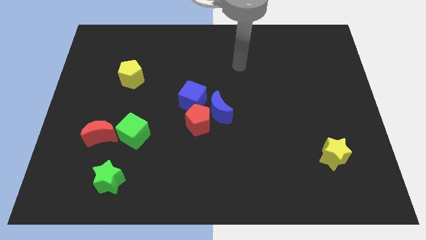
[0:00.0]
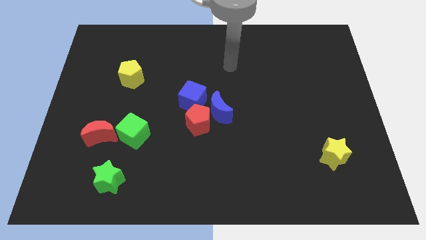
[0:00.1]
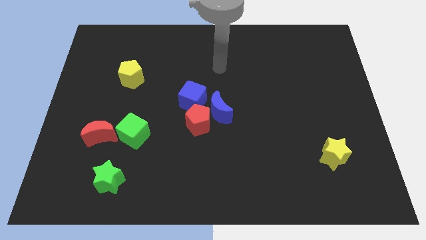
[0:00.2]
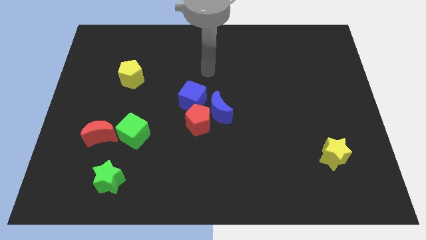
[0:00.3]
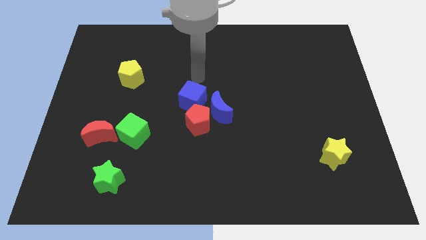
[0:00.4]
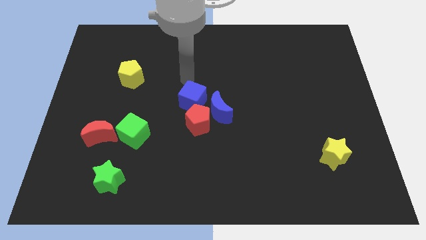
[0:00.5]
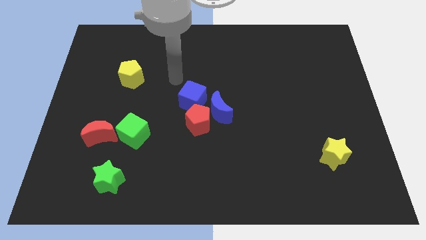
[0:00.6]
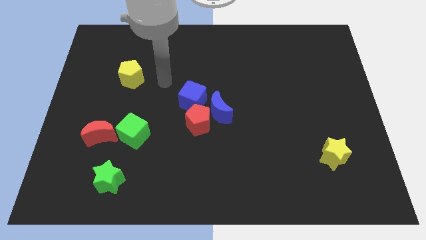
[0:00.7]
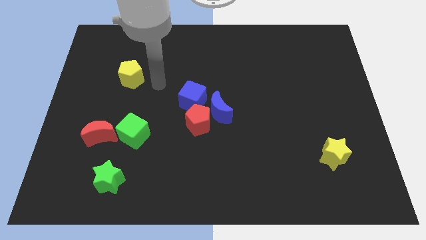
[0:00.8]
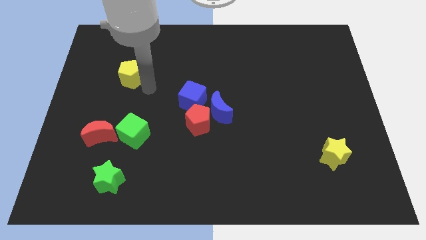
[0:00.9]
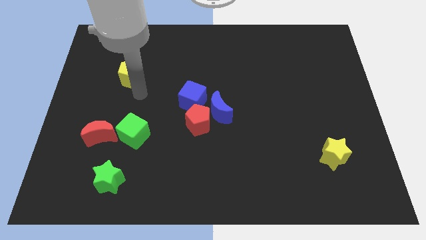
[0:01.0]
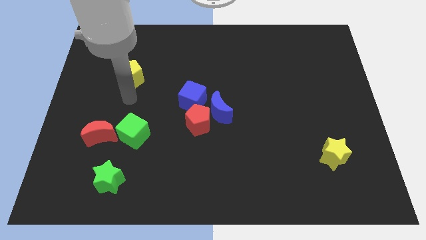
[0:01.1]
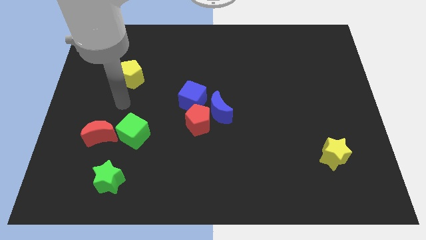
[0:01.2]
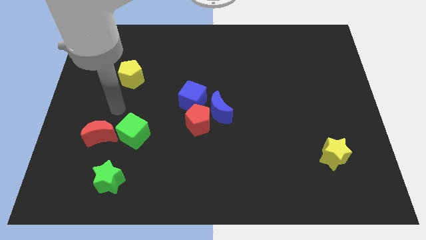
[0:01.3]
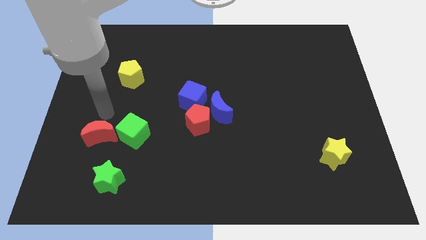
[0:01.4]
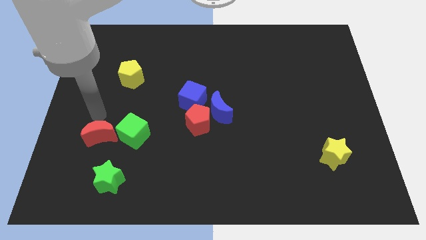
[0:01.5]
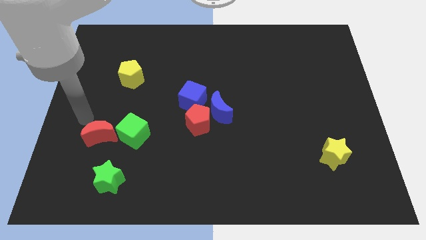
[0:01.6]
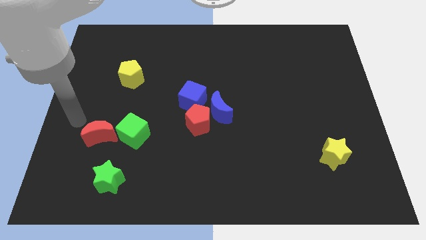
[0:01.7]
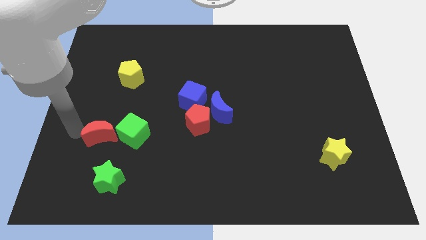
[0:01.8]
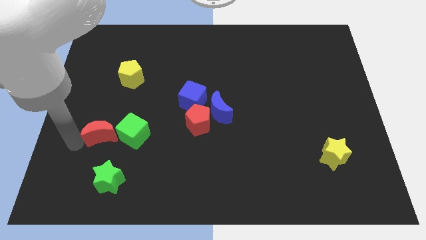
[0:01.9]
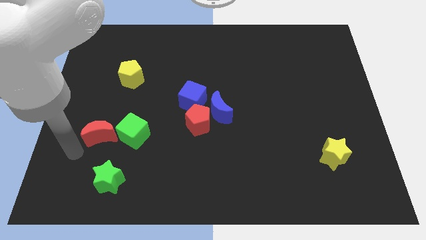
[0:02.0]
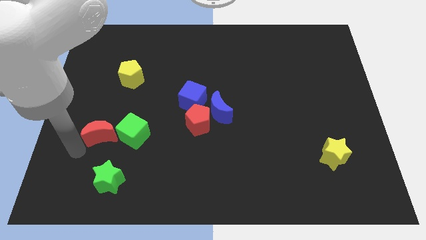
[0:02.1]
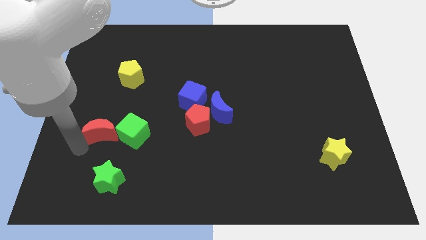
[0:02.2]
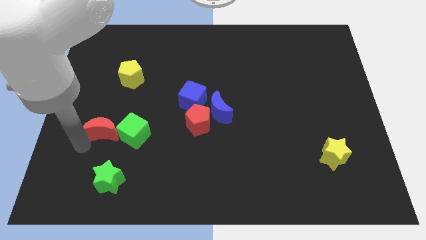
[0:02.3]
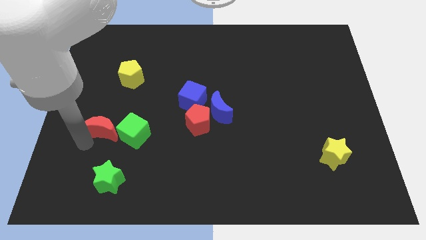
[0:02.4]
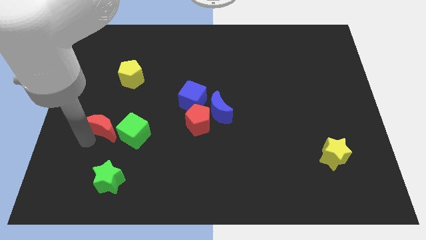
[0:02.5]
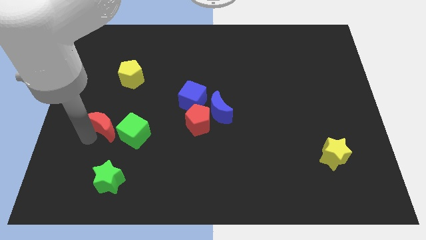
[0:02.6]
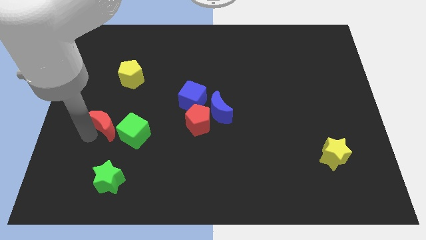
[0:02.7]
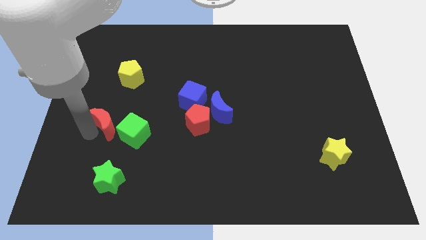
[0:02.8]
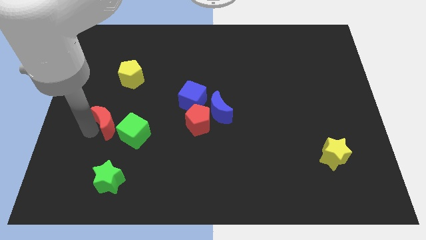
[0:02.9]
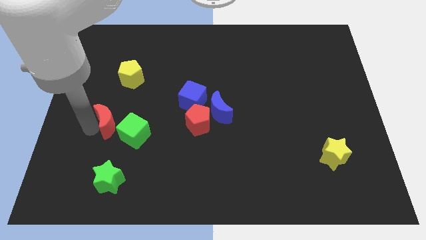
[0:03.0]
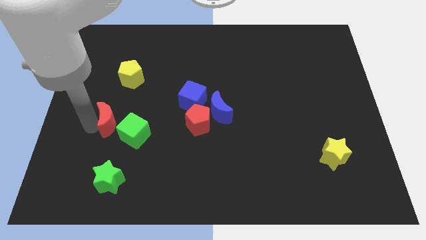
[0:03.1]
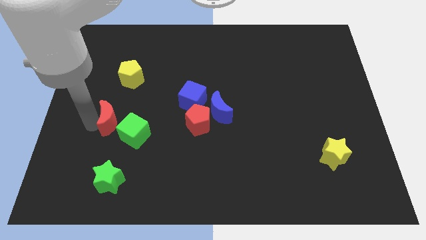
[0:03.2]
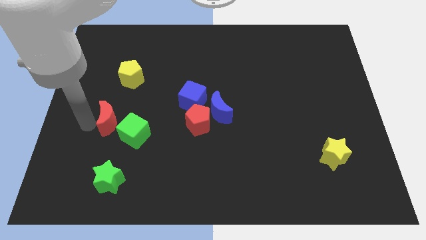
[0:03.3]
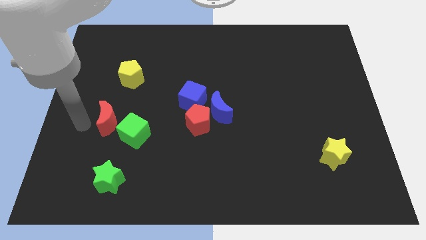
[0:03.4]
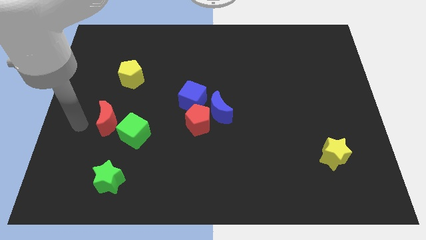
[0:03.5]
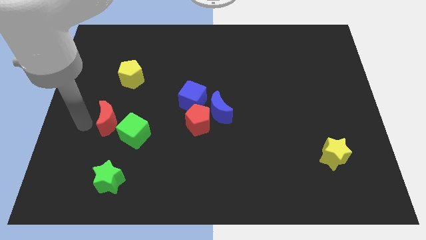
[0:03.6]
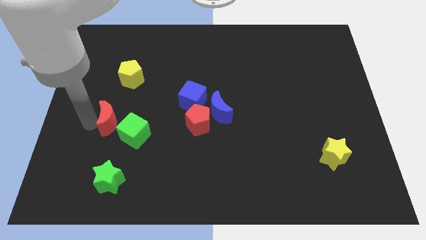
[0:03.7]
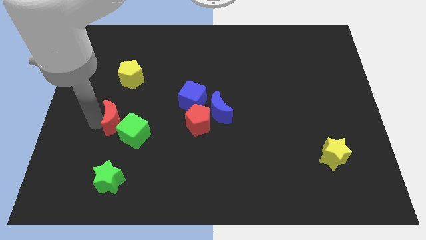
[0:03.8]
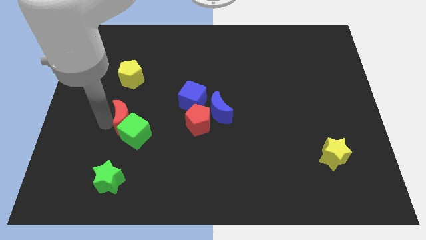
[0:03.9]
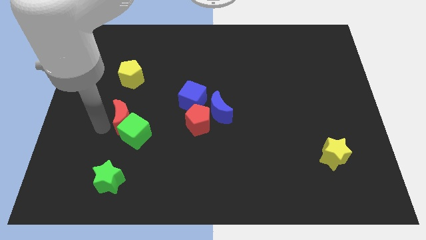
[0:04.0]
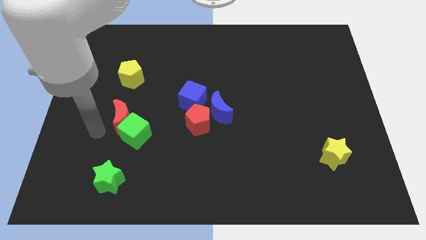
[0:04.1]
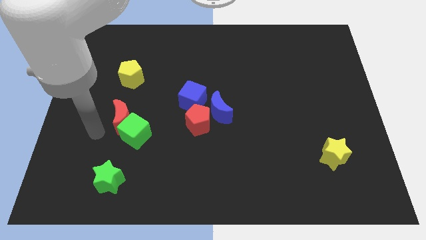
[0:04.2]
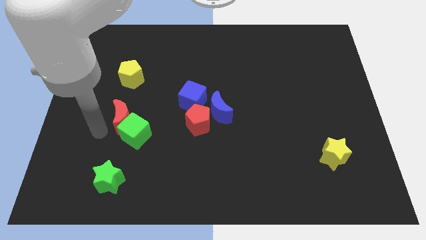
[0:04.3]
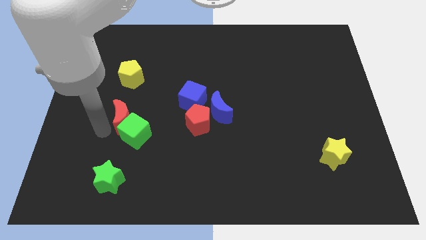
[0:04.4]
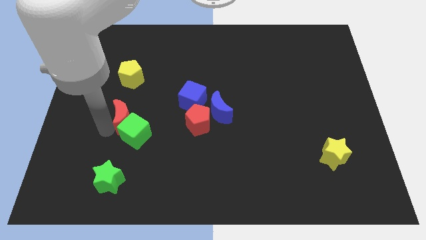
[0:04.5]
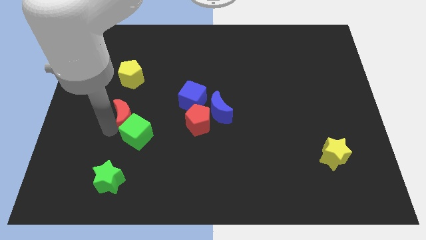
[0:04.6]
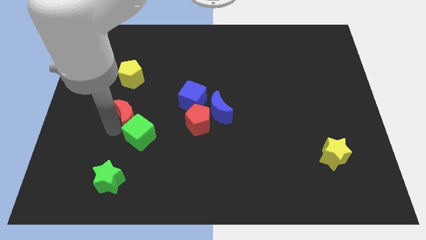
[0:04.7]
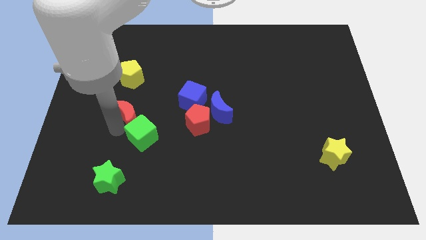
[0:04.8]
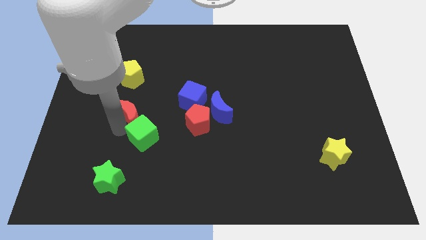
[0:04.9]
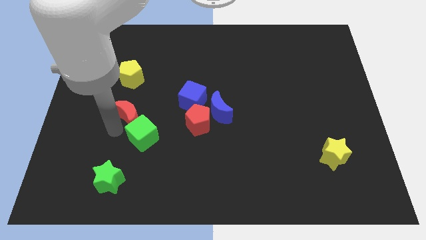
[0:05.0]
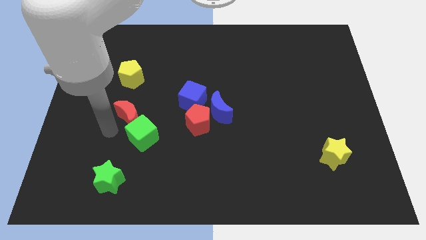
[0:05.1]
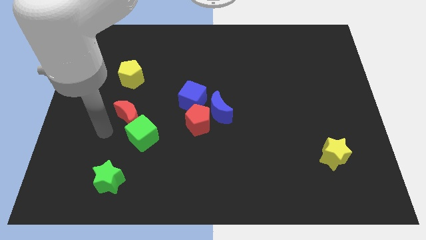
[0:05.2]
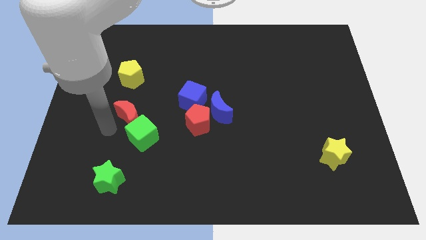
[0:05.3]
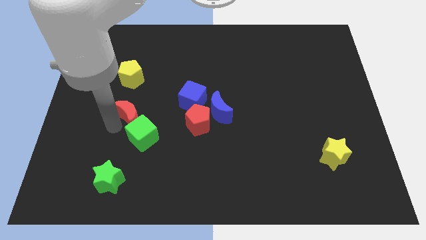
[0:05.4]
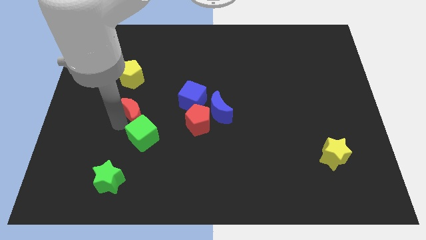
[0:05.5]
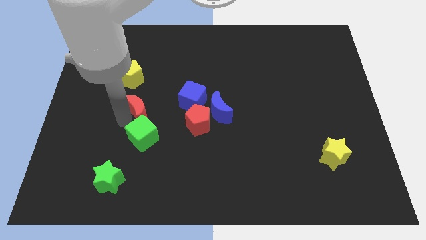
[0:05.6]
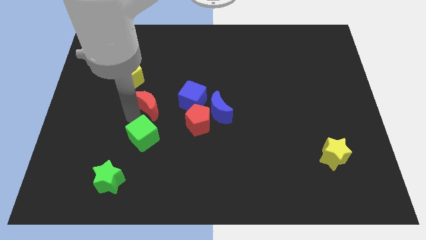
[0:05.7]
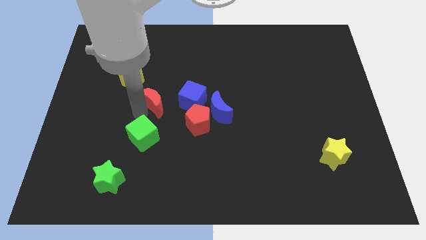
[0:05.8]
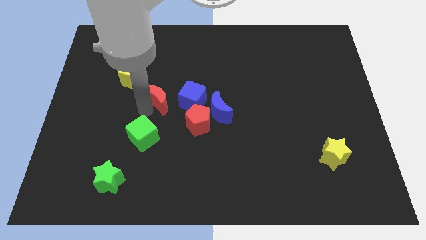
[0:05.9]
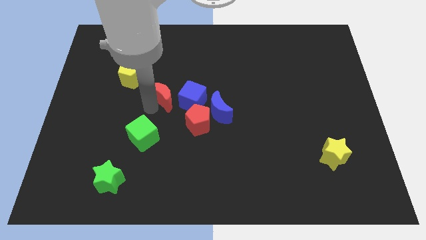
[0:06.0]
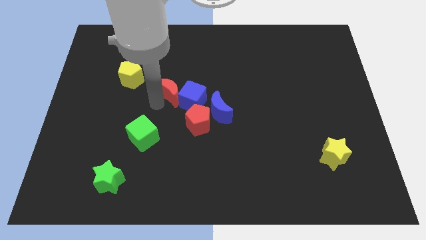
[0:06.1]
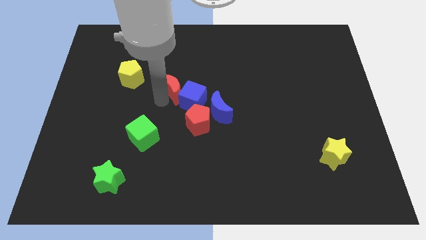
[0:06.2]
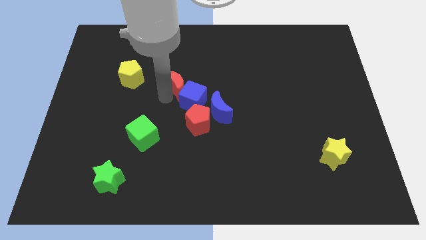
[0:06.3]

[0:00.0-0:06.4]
put the red moon above the blue cube

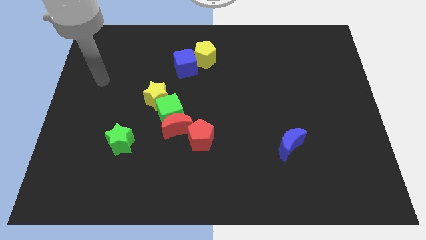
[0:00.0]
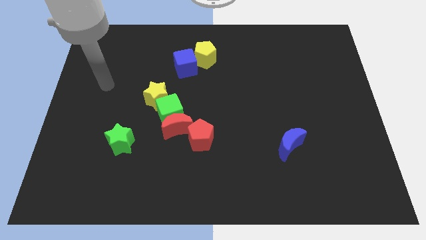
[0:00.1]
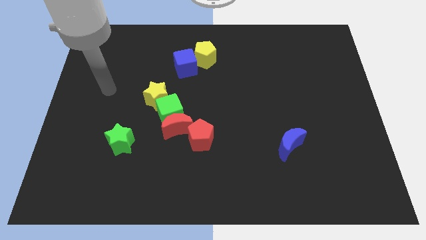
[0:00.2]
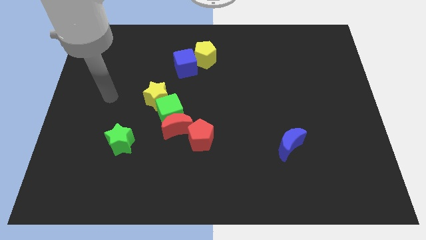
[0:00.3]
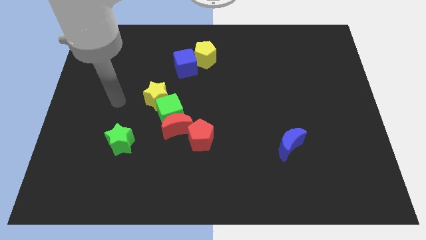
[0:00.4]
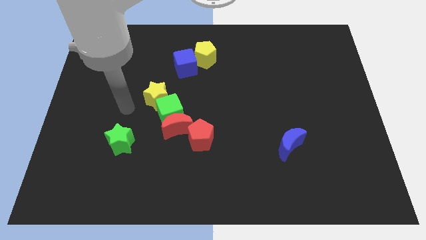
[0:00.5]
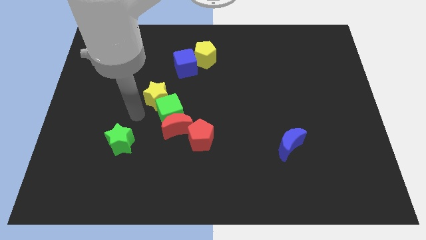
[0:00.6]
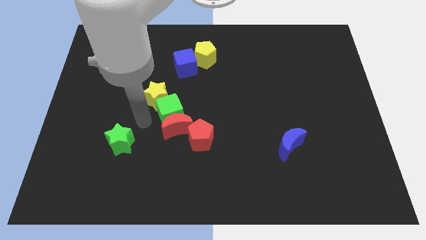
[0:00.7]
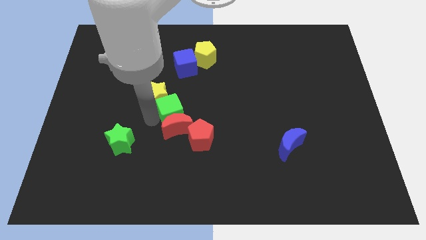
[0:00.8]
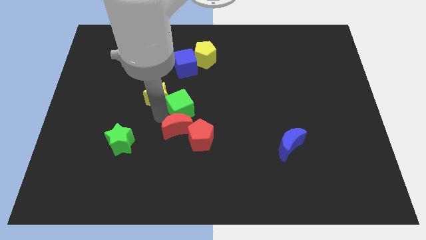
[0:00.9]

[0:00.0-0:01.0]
put the green cube to the top side of the red pentagon
